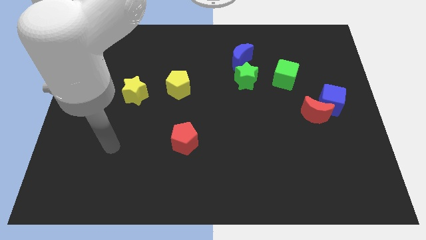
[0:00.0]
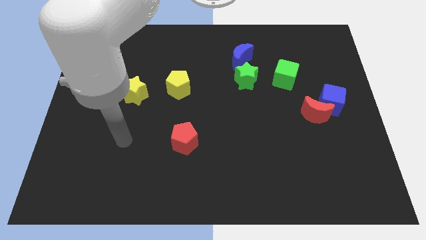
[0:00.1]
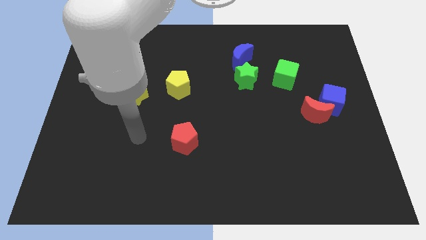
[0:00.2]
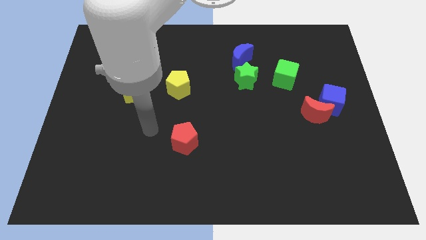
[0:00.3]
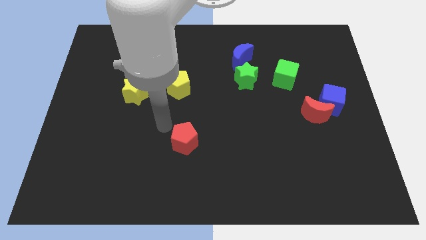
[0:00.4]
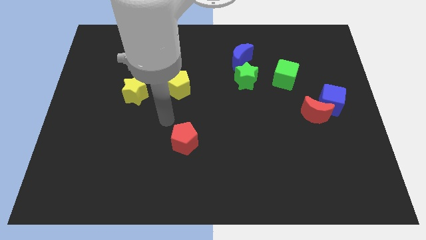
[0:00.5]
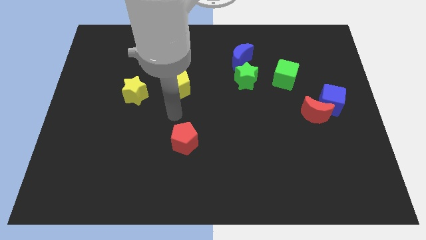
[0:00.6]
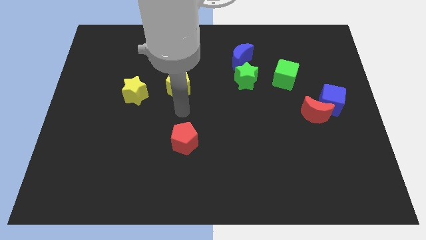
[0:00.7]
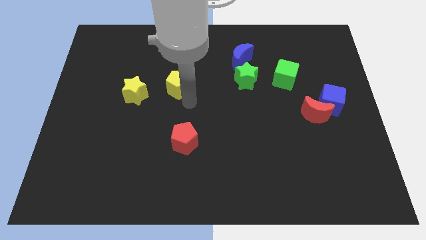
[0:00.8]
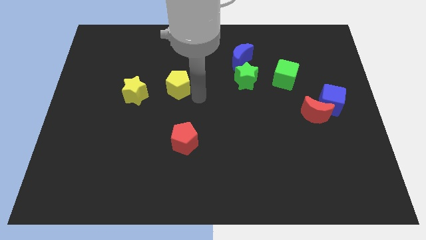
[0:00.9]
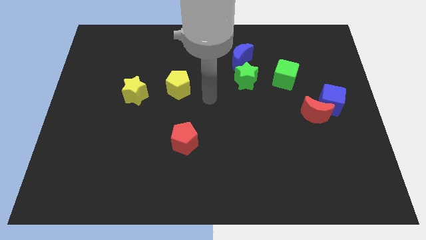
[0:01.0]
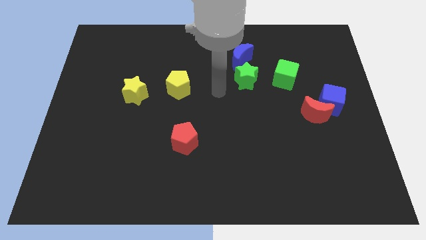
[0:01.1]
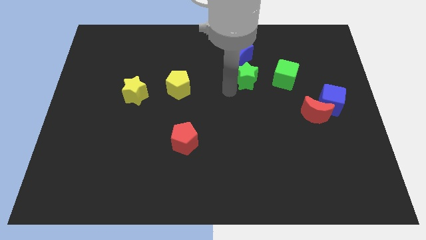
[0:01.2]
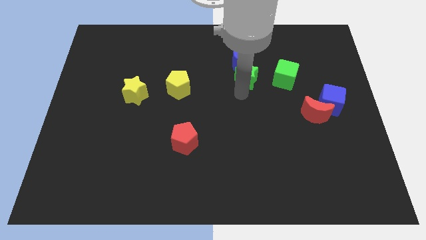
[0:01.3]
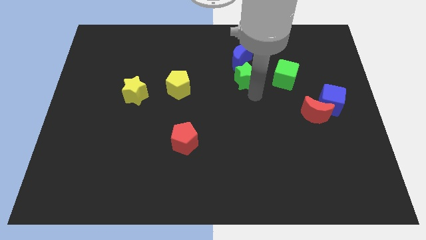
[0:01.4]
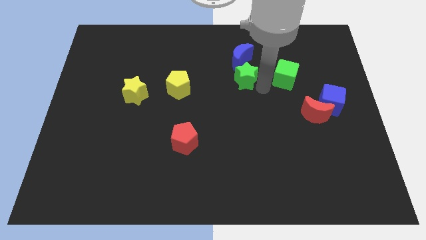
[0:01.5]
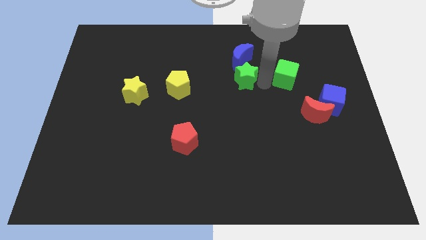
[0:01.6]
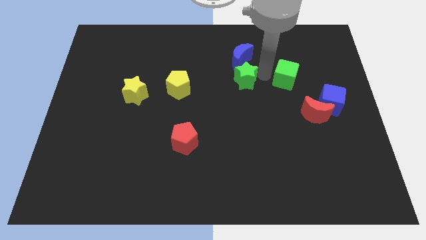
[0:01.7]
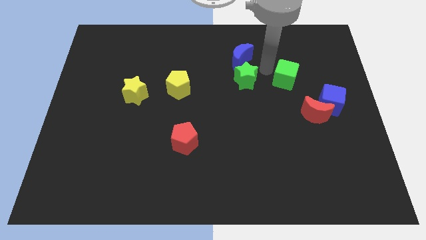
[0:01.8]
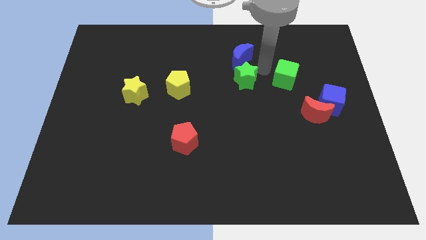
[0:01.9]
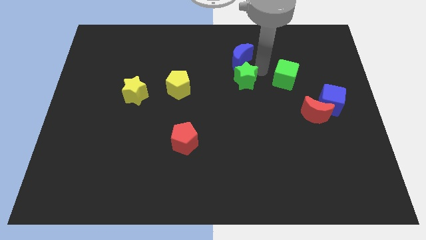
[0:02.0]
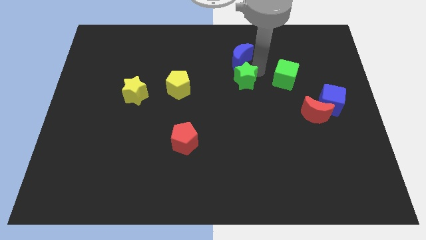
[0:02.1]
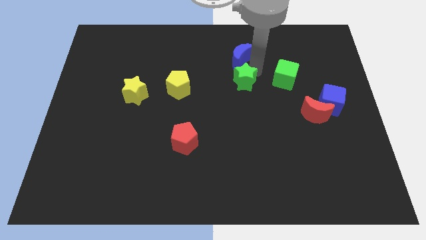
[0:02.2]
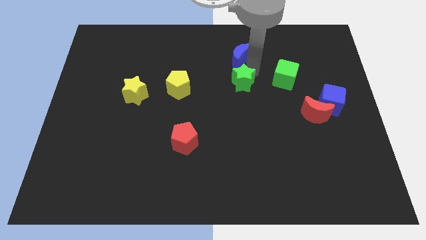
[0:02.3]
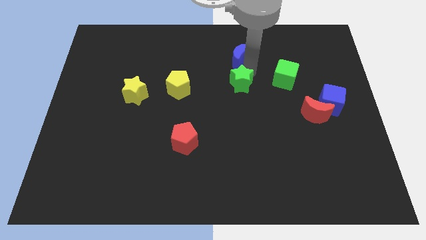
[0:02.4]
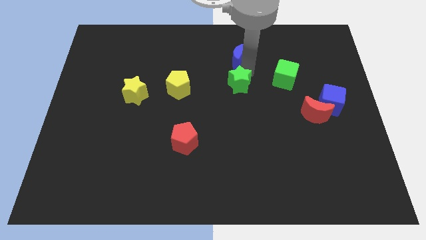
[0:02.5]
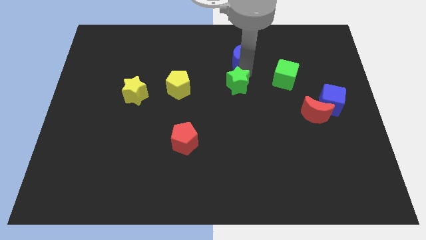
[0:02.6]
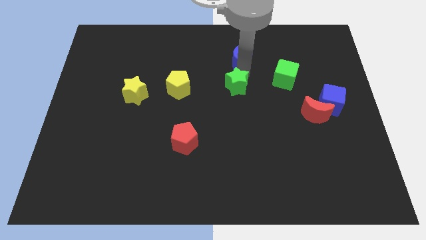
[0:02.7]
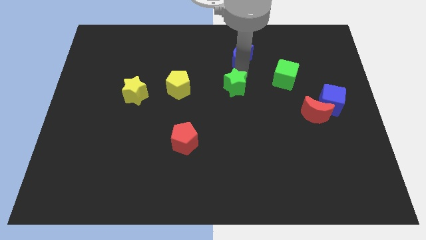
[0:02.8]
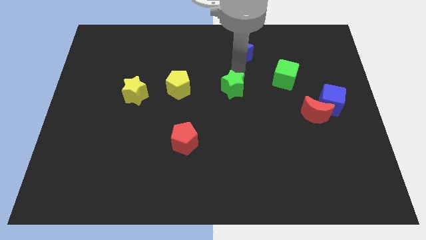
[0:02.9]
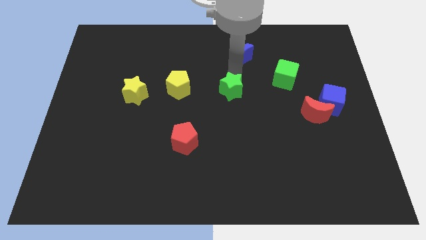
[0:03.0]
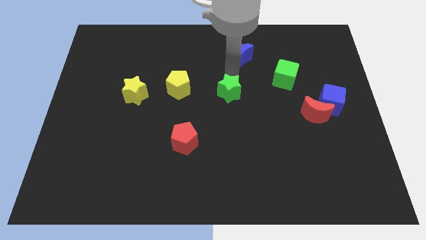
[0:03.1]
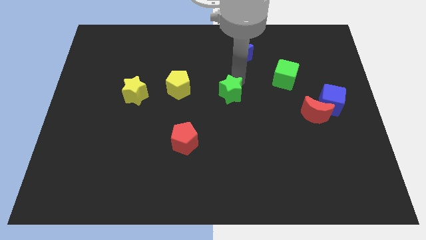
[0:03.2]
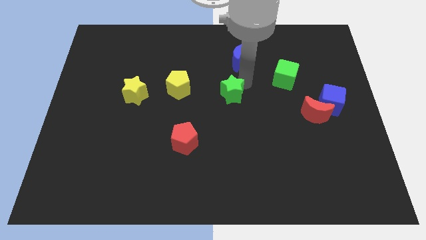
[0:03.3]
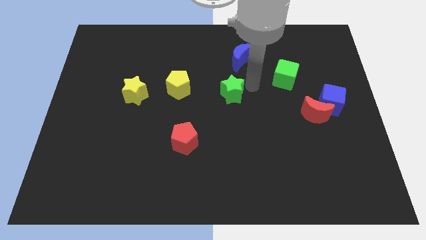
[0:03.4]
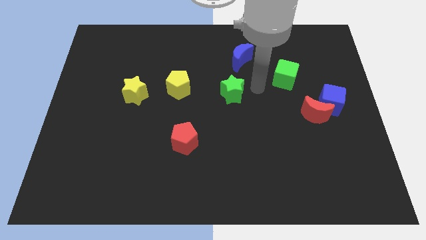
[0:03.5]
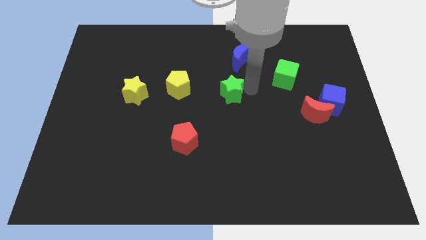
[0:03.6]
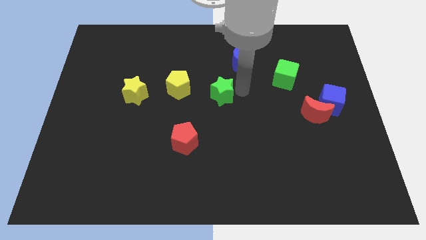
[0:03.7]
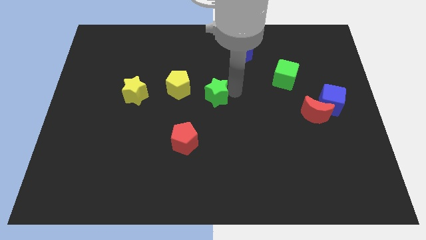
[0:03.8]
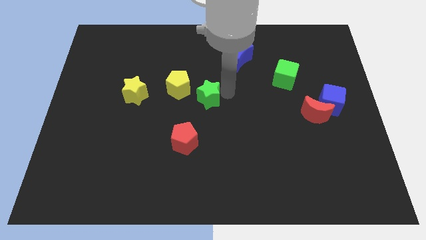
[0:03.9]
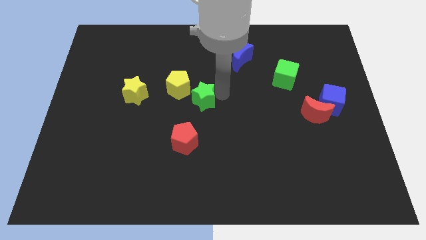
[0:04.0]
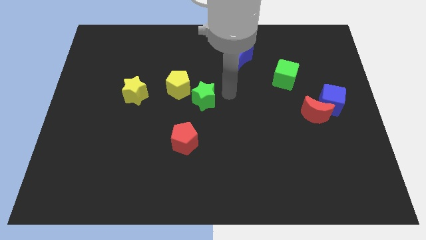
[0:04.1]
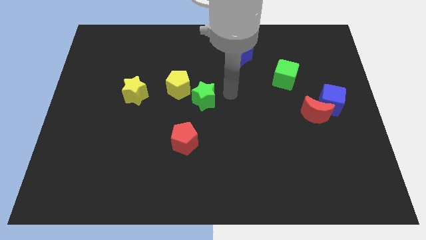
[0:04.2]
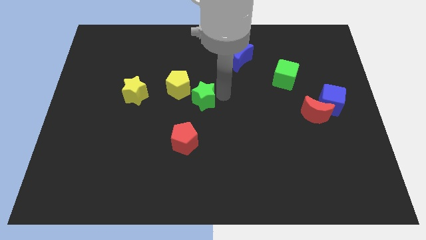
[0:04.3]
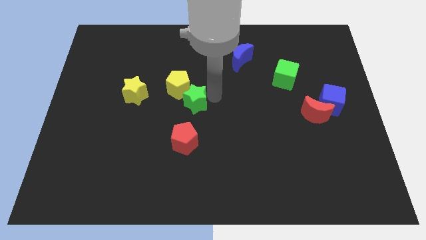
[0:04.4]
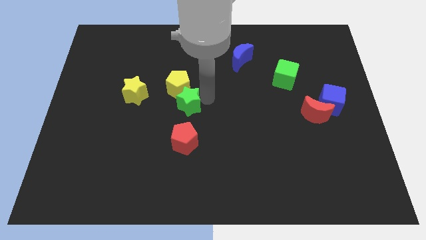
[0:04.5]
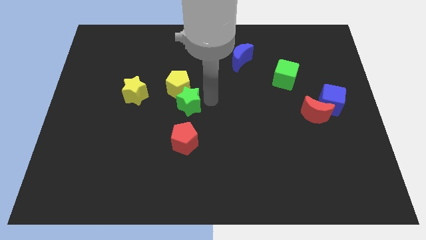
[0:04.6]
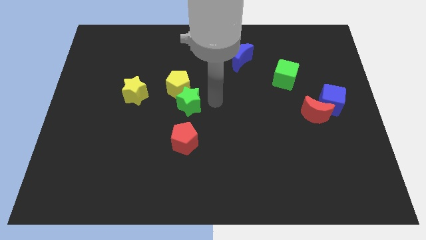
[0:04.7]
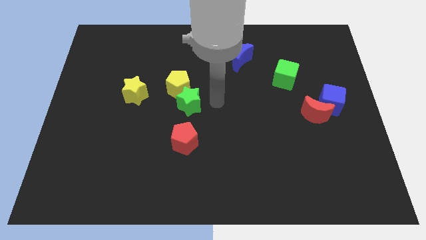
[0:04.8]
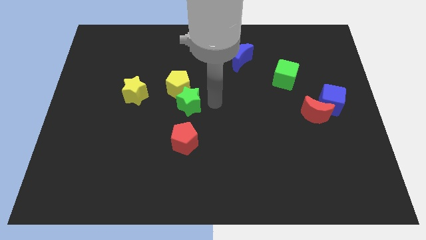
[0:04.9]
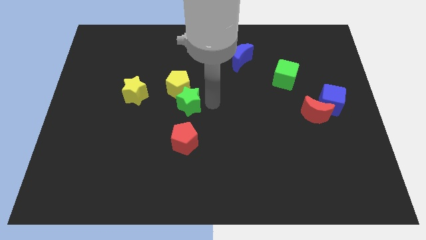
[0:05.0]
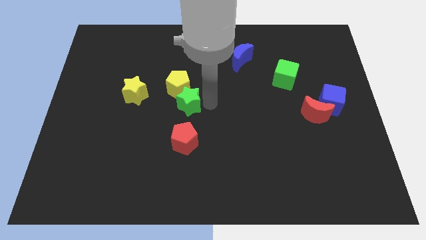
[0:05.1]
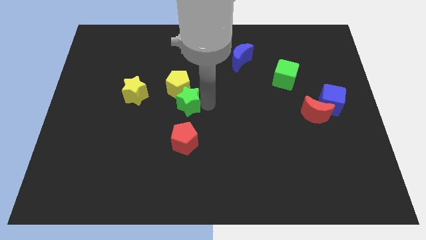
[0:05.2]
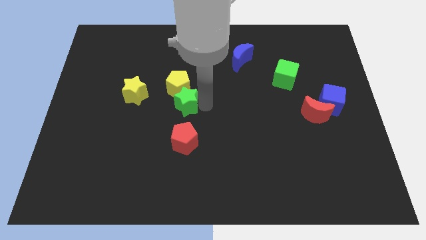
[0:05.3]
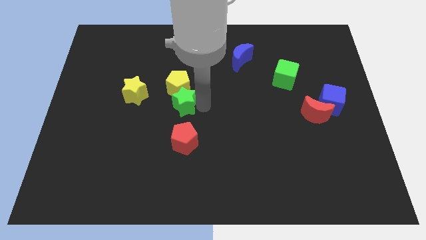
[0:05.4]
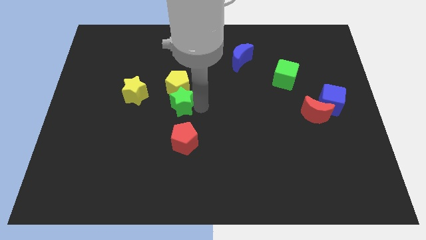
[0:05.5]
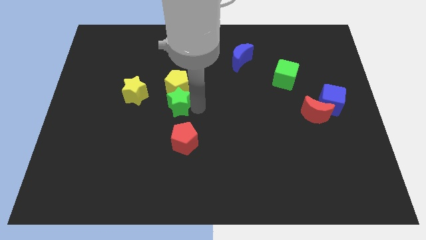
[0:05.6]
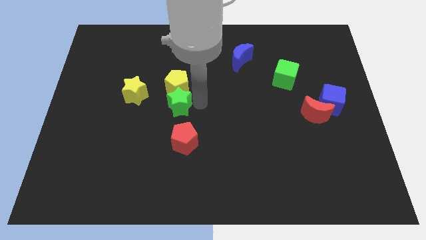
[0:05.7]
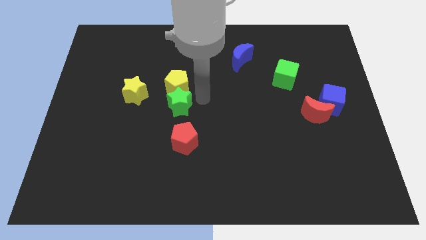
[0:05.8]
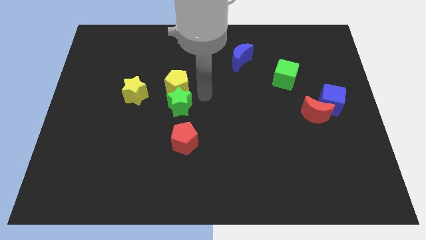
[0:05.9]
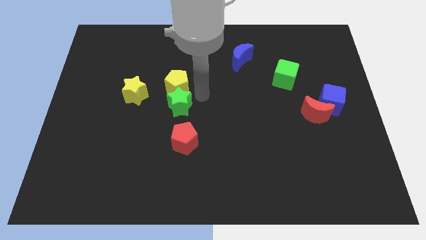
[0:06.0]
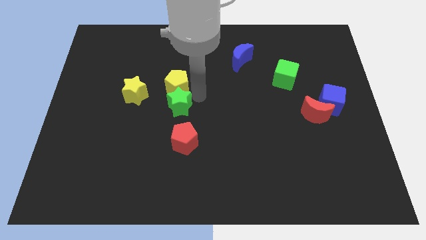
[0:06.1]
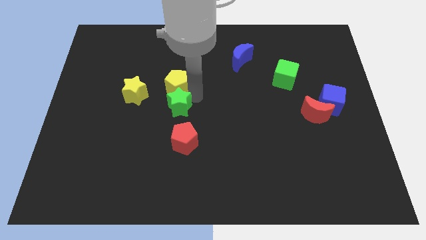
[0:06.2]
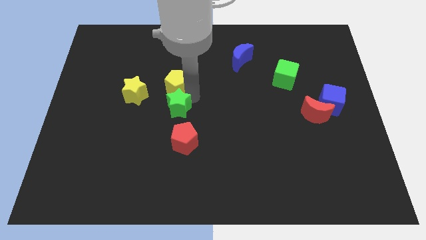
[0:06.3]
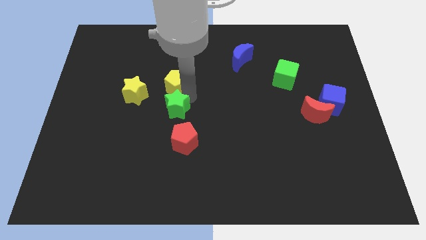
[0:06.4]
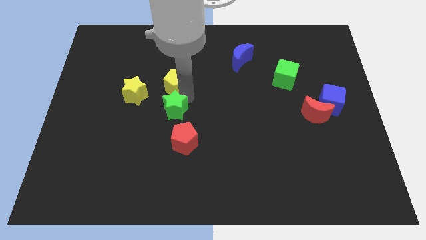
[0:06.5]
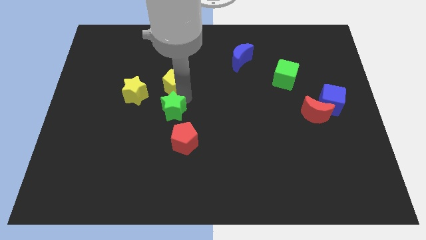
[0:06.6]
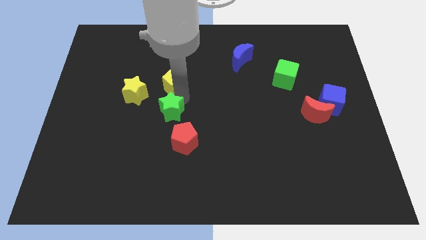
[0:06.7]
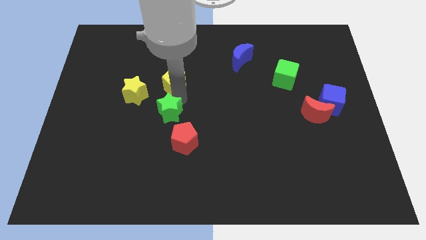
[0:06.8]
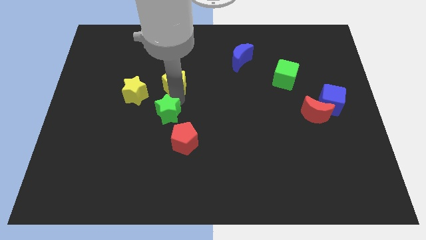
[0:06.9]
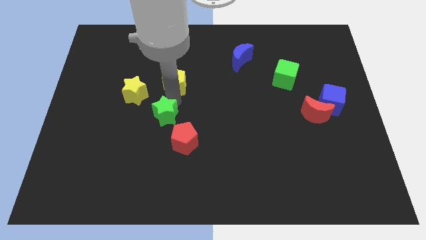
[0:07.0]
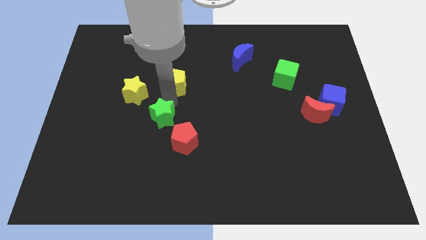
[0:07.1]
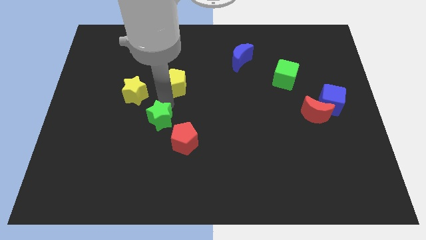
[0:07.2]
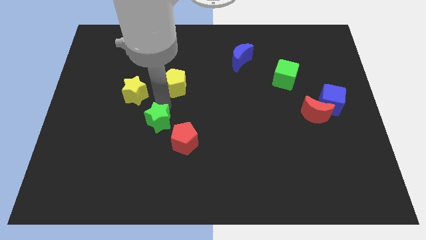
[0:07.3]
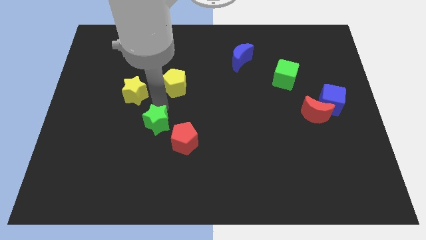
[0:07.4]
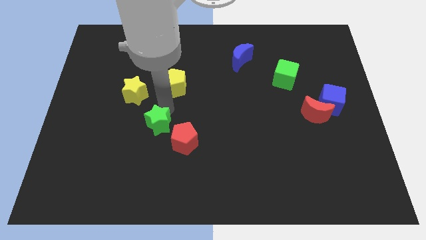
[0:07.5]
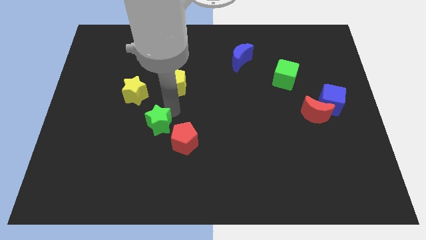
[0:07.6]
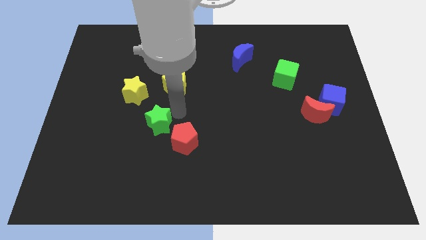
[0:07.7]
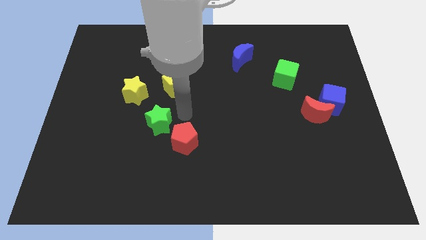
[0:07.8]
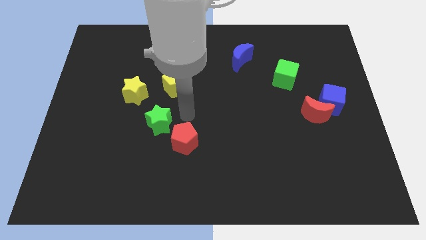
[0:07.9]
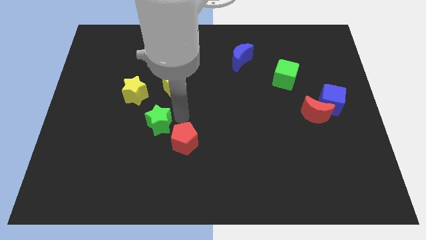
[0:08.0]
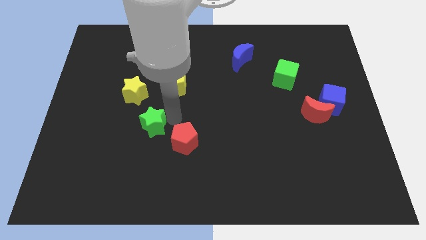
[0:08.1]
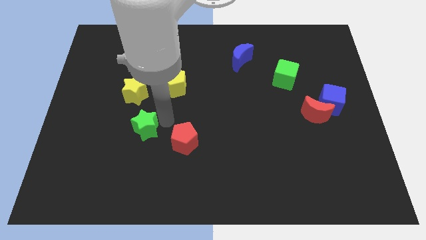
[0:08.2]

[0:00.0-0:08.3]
slide the green star below the yellow star
